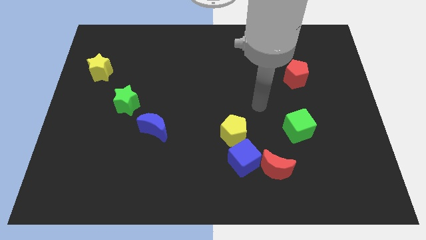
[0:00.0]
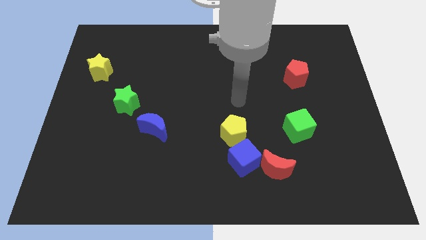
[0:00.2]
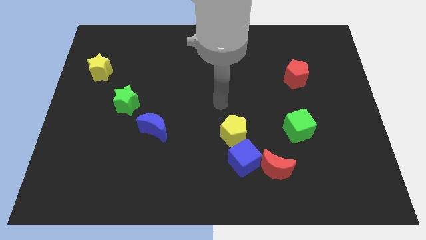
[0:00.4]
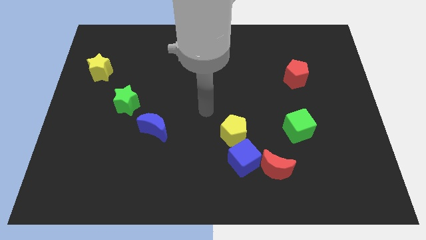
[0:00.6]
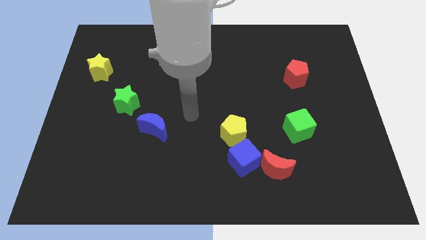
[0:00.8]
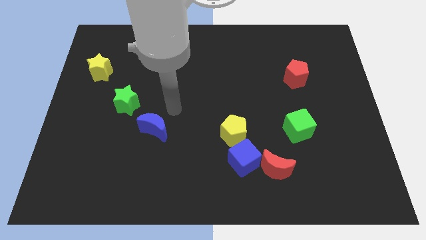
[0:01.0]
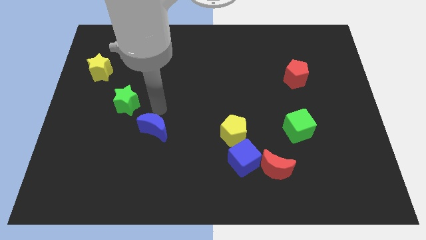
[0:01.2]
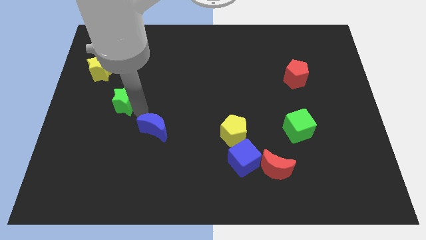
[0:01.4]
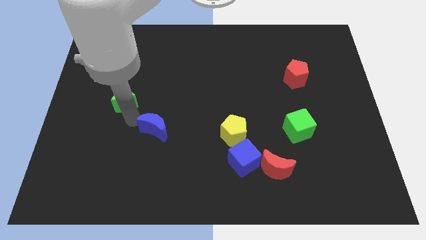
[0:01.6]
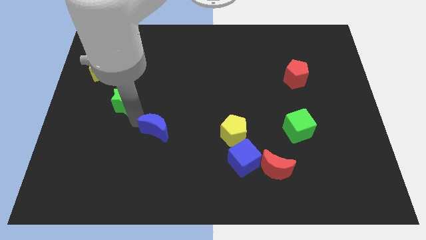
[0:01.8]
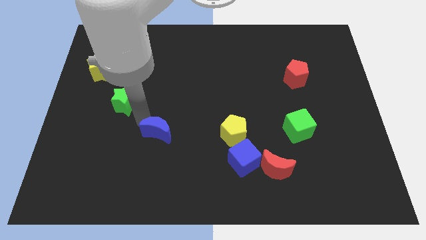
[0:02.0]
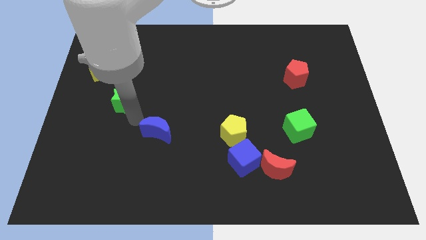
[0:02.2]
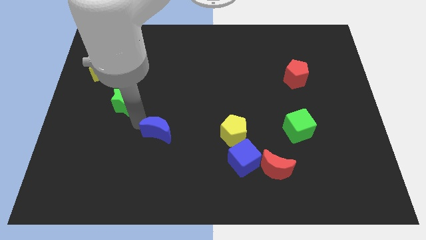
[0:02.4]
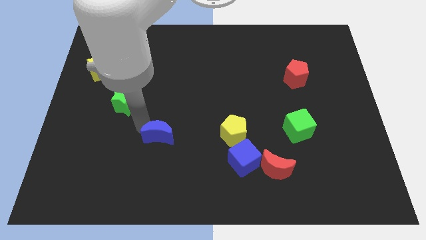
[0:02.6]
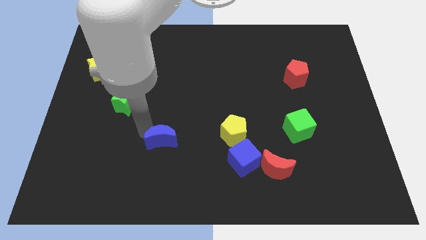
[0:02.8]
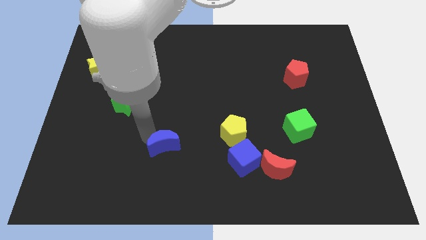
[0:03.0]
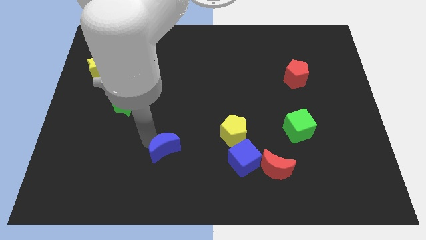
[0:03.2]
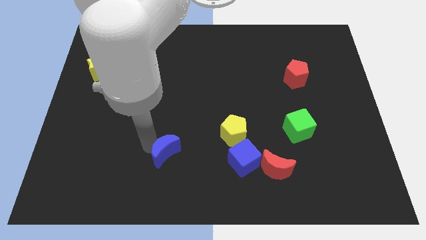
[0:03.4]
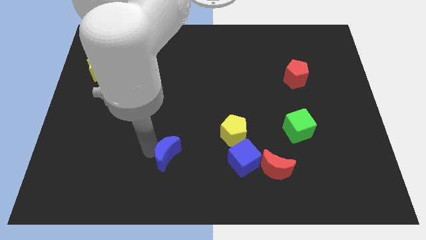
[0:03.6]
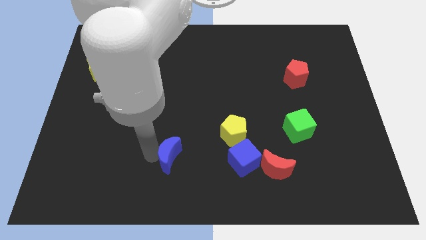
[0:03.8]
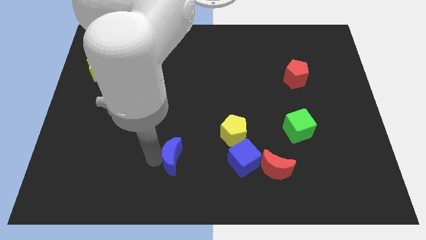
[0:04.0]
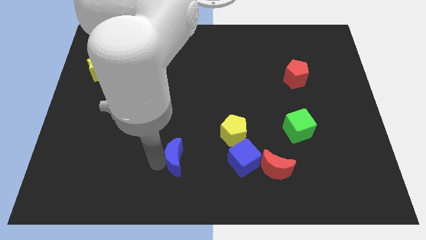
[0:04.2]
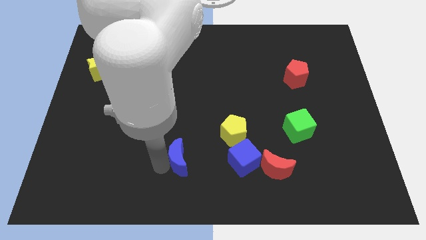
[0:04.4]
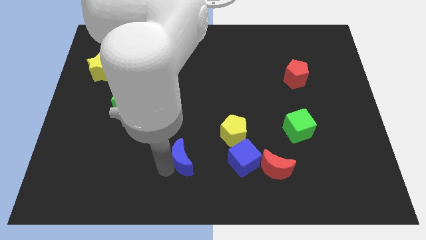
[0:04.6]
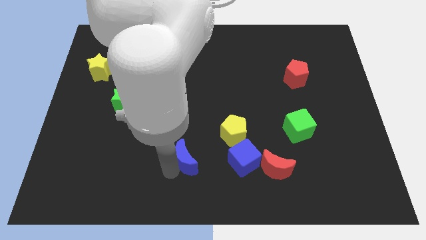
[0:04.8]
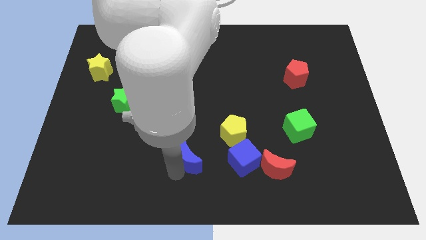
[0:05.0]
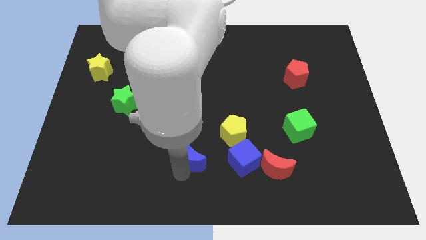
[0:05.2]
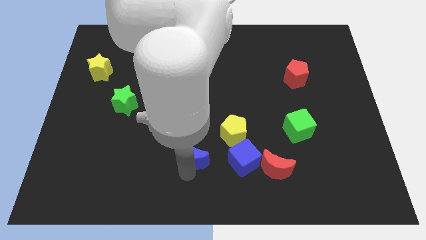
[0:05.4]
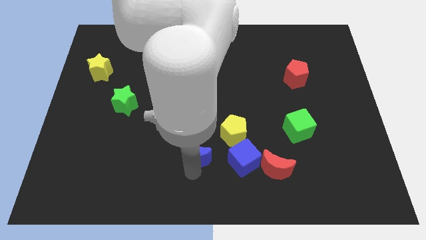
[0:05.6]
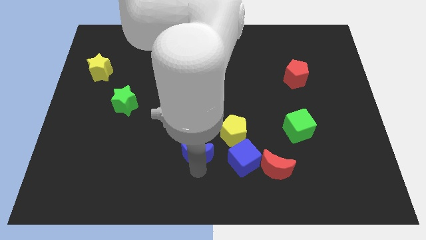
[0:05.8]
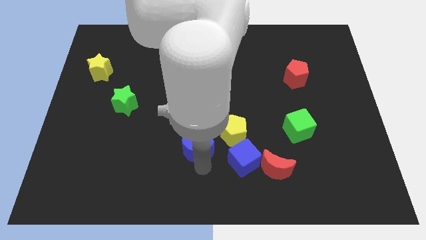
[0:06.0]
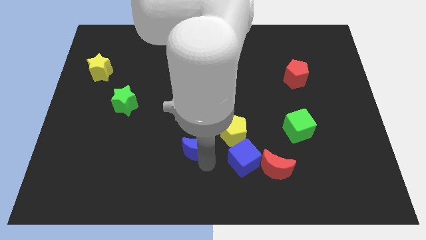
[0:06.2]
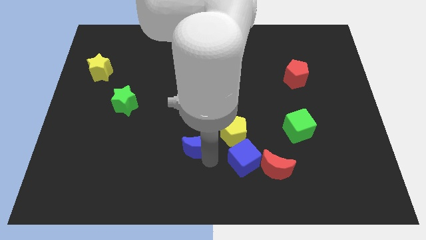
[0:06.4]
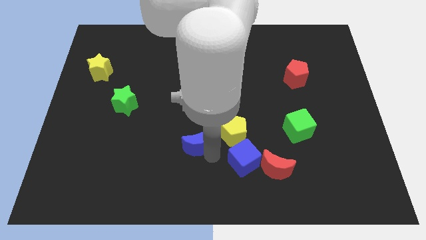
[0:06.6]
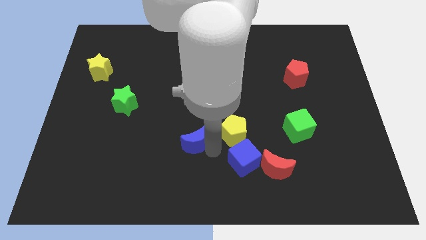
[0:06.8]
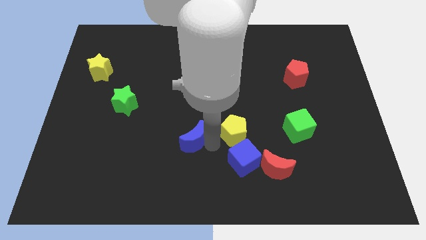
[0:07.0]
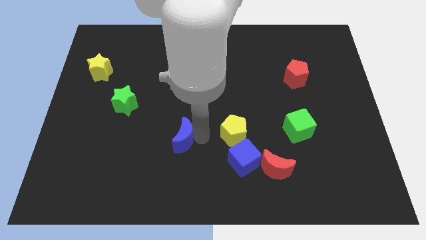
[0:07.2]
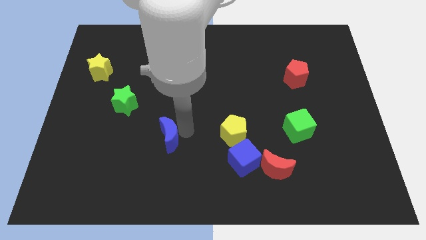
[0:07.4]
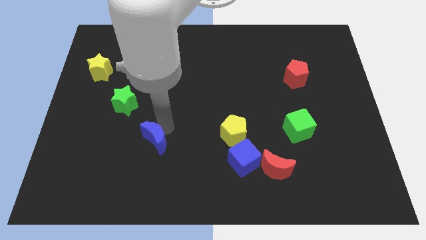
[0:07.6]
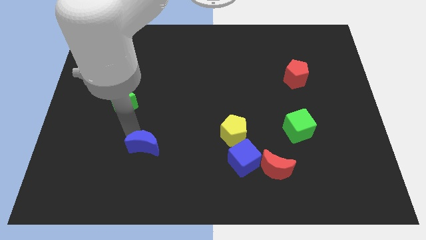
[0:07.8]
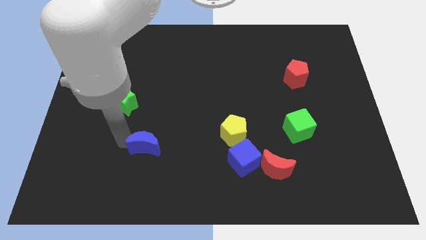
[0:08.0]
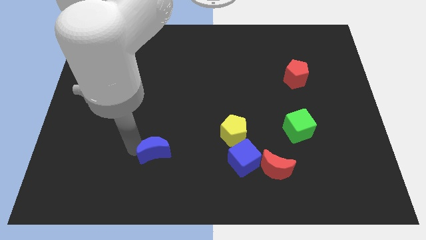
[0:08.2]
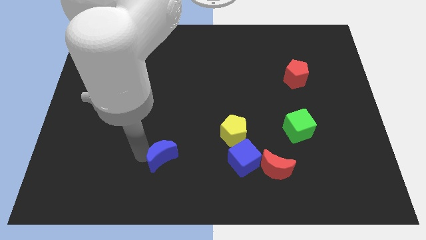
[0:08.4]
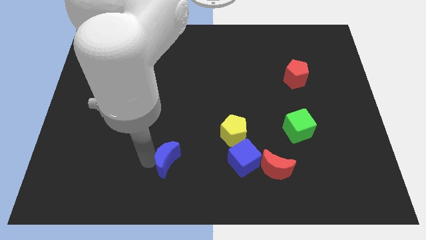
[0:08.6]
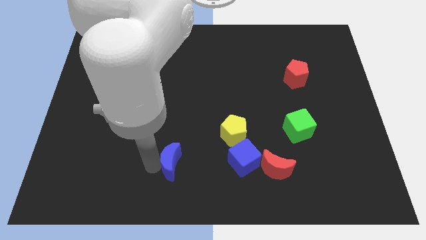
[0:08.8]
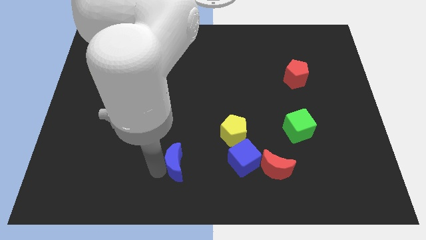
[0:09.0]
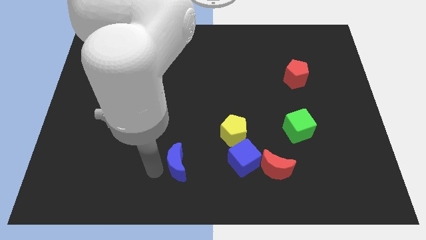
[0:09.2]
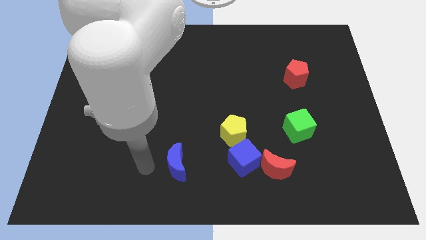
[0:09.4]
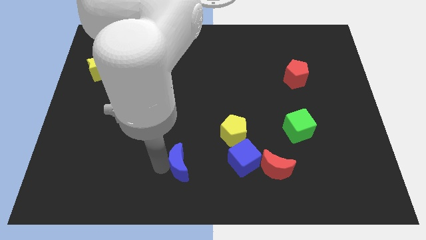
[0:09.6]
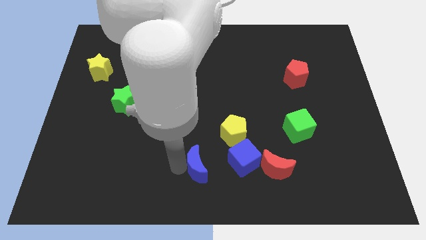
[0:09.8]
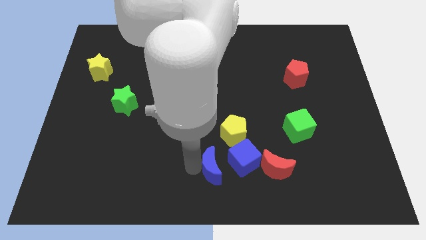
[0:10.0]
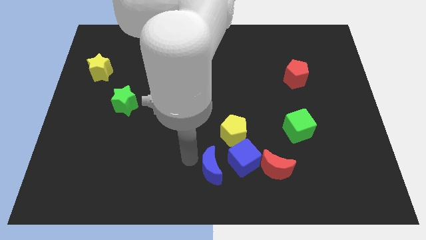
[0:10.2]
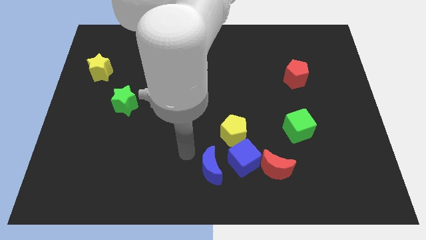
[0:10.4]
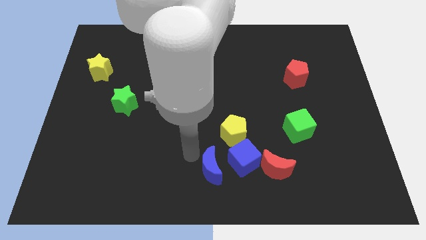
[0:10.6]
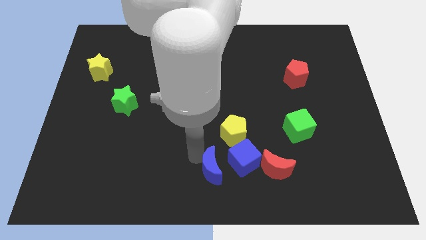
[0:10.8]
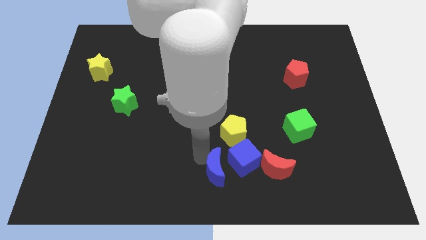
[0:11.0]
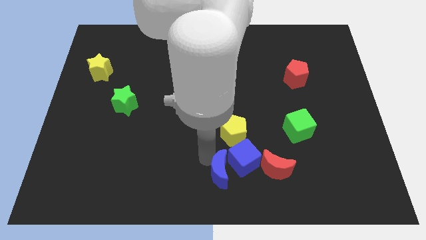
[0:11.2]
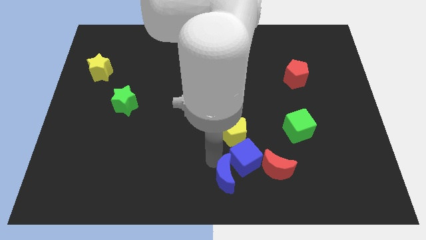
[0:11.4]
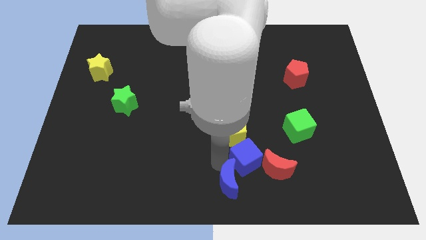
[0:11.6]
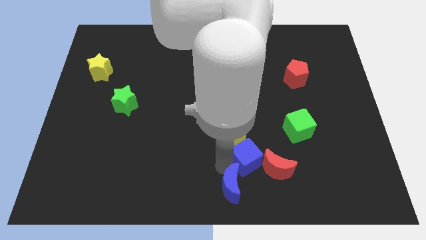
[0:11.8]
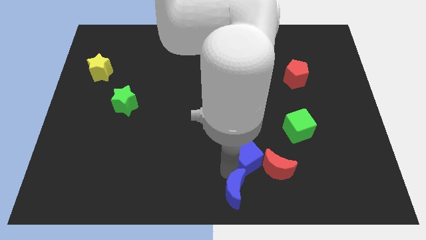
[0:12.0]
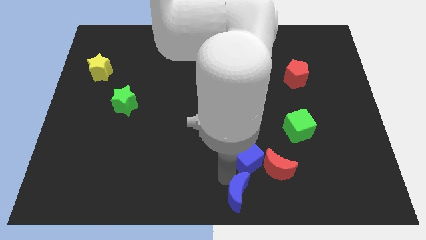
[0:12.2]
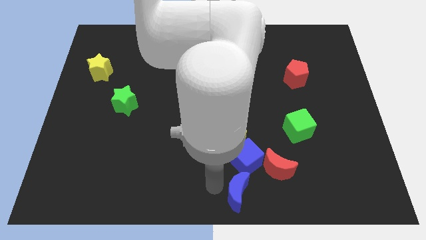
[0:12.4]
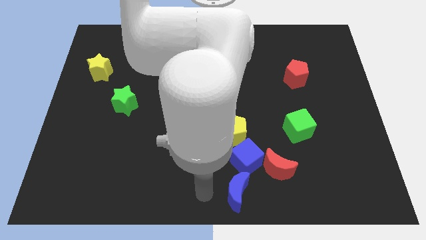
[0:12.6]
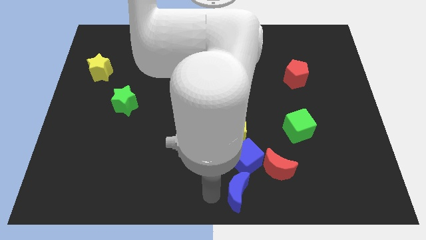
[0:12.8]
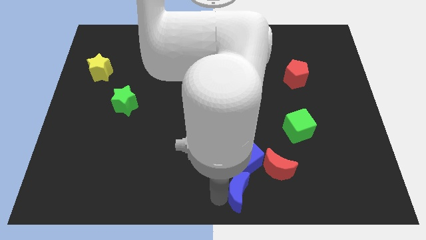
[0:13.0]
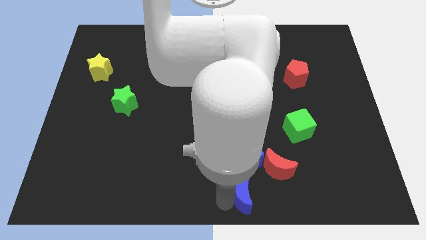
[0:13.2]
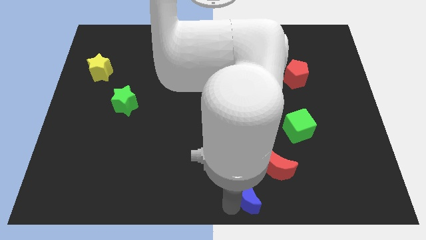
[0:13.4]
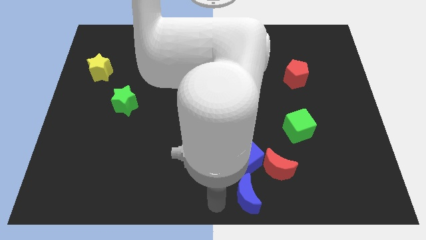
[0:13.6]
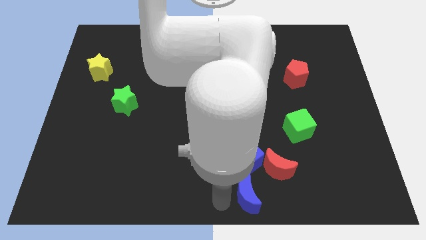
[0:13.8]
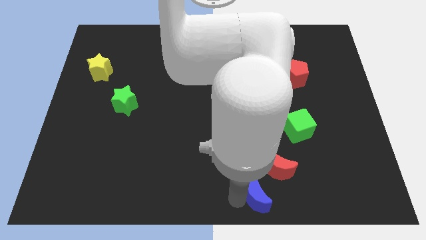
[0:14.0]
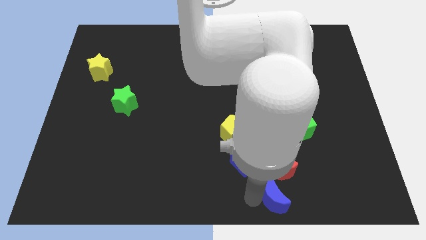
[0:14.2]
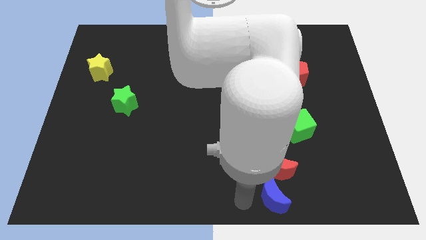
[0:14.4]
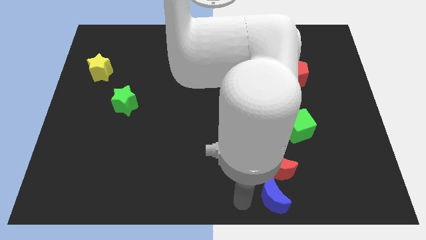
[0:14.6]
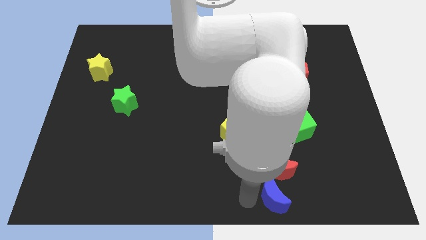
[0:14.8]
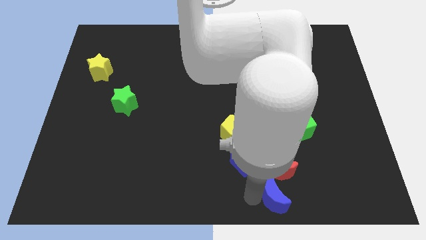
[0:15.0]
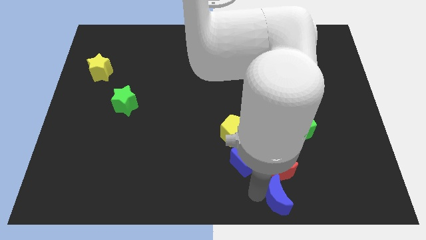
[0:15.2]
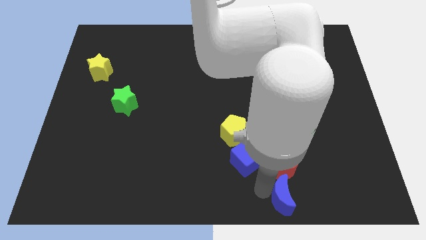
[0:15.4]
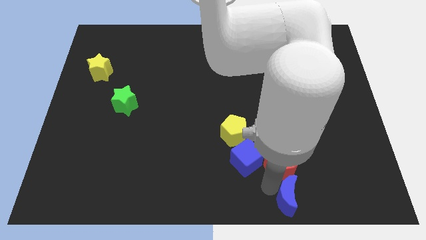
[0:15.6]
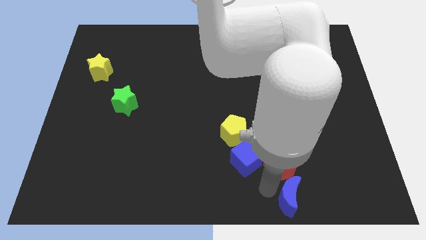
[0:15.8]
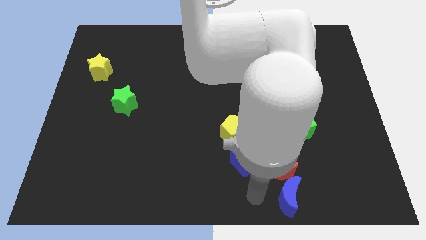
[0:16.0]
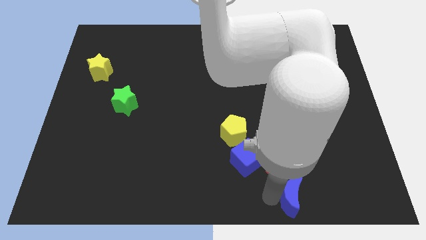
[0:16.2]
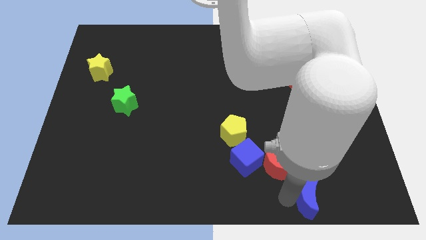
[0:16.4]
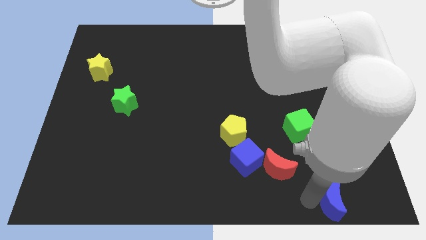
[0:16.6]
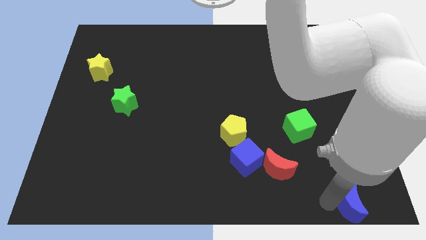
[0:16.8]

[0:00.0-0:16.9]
put the blue moon to the bottom right
